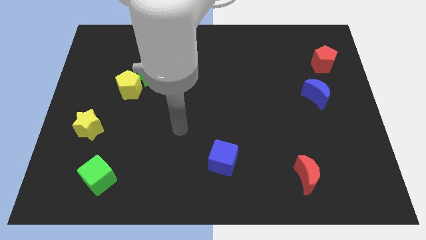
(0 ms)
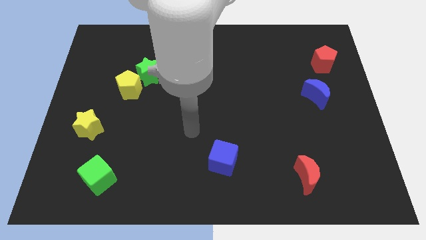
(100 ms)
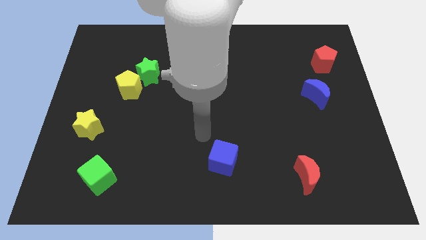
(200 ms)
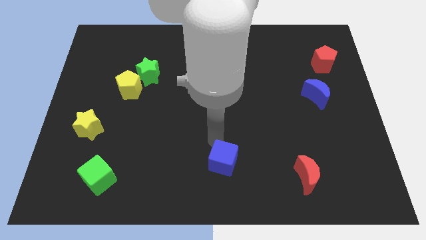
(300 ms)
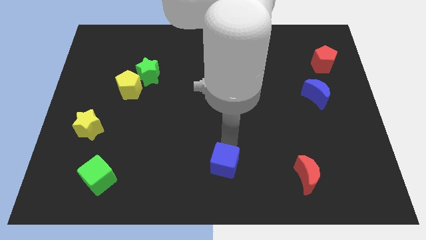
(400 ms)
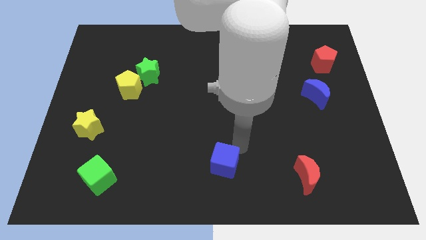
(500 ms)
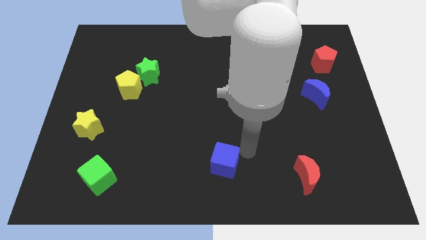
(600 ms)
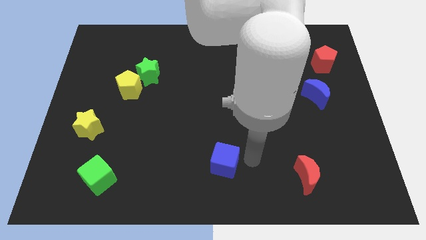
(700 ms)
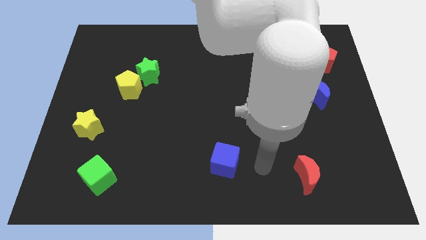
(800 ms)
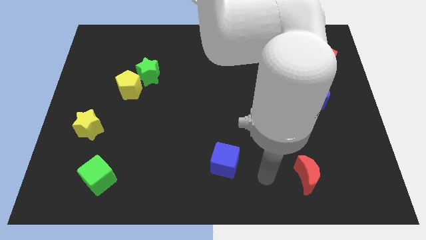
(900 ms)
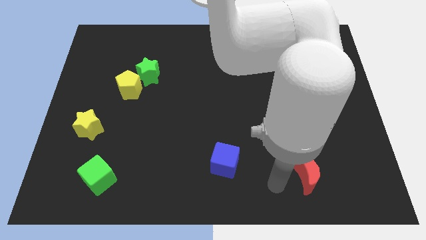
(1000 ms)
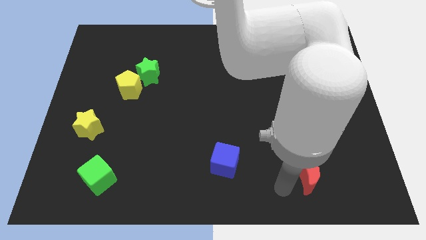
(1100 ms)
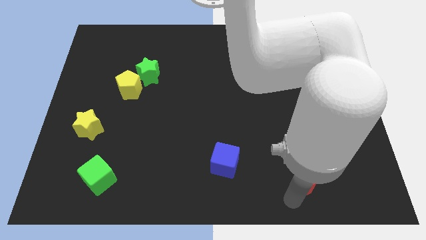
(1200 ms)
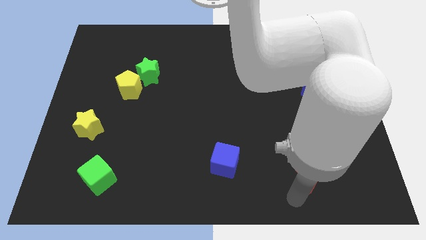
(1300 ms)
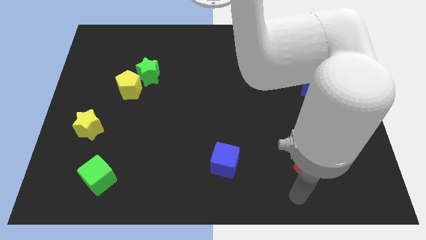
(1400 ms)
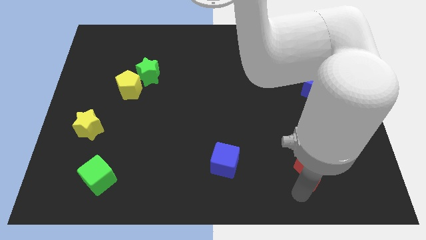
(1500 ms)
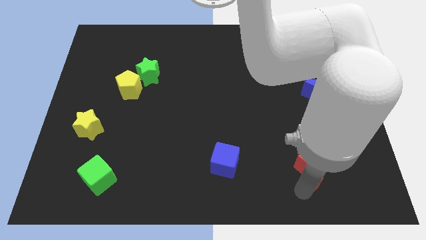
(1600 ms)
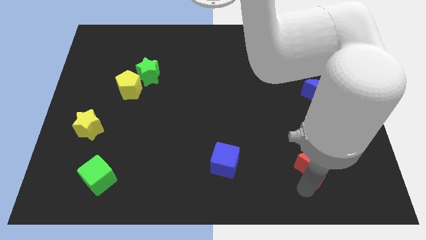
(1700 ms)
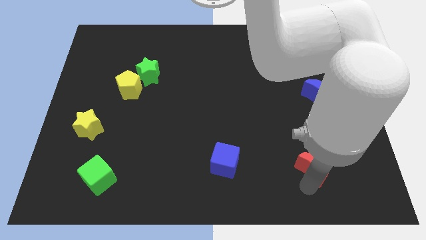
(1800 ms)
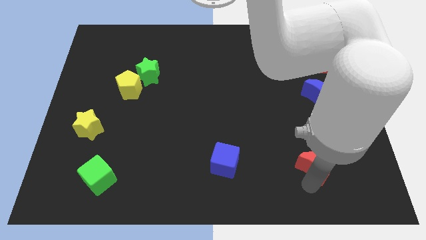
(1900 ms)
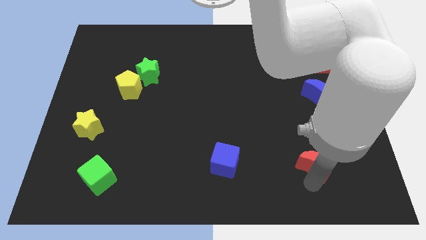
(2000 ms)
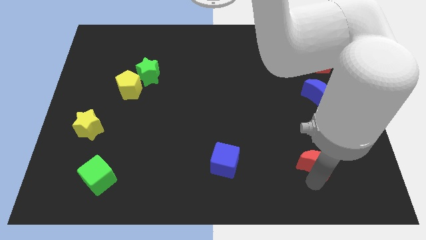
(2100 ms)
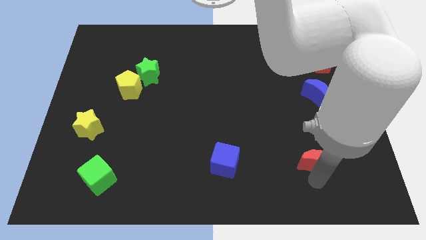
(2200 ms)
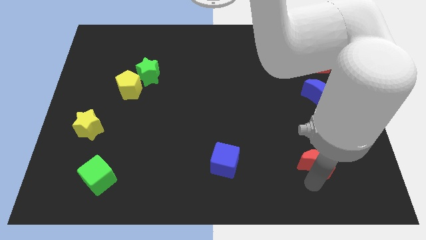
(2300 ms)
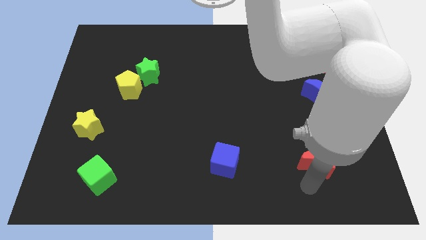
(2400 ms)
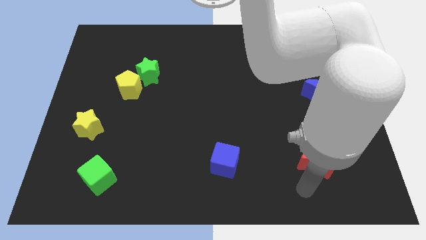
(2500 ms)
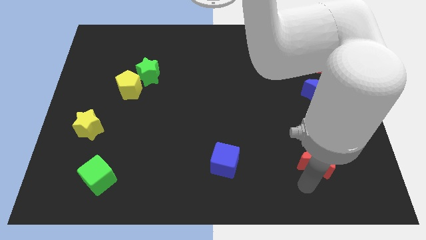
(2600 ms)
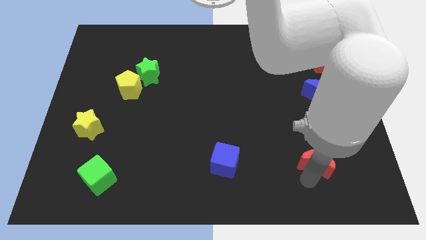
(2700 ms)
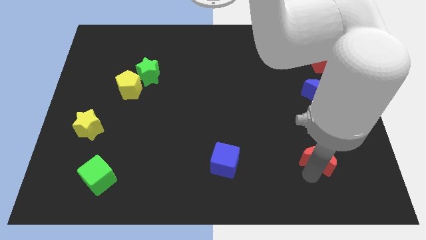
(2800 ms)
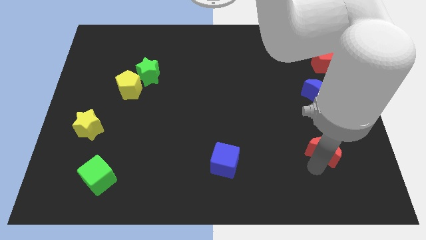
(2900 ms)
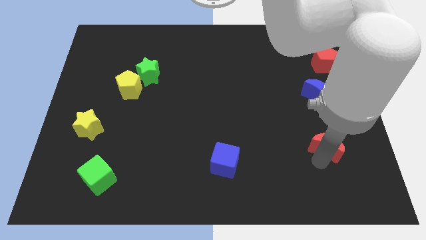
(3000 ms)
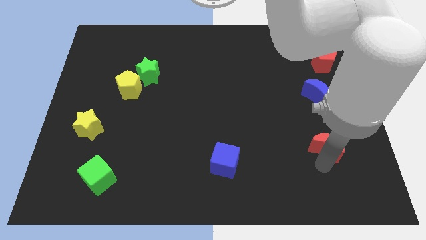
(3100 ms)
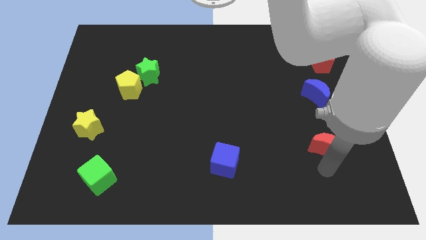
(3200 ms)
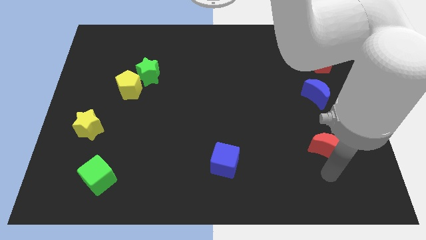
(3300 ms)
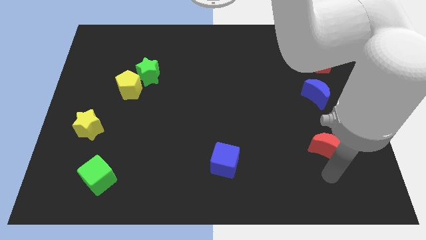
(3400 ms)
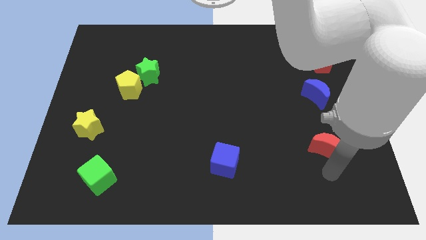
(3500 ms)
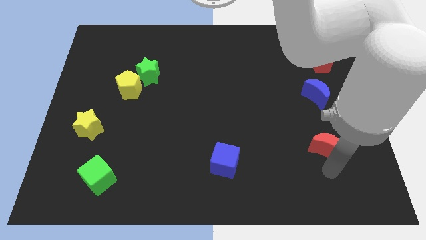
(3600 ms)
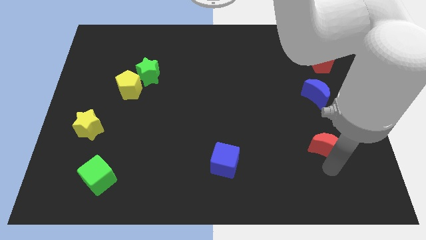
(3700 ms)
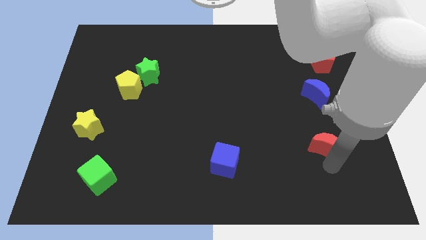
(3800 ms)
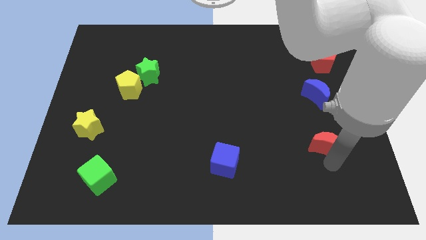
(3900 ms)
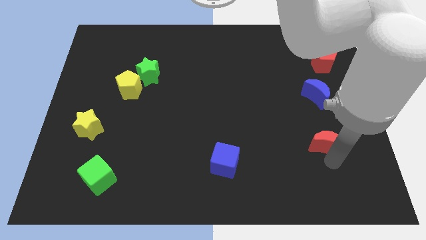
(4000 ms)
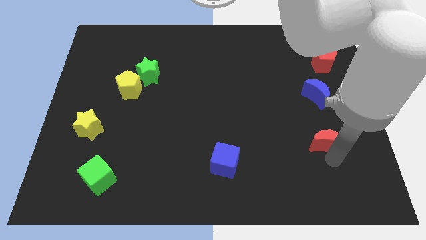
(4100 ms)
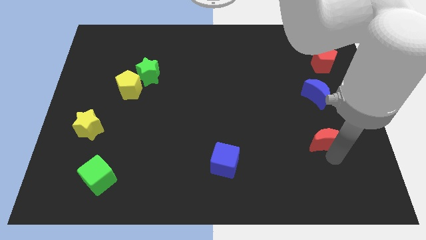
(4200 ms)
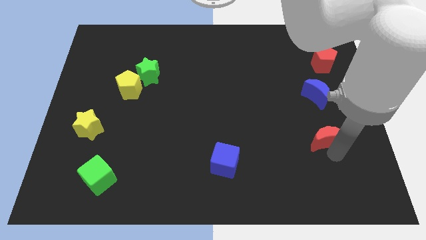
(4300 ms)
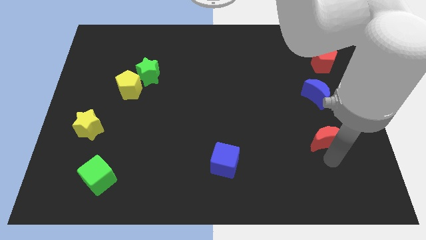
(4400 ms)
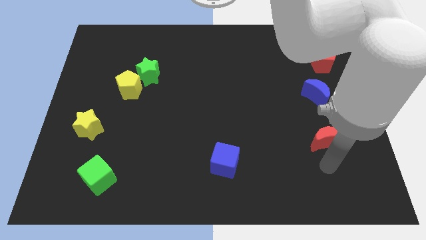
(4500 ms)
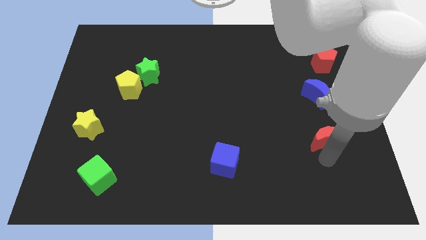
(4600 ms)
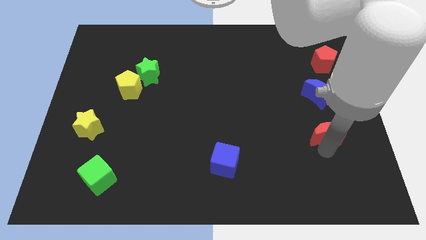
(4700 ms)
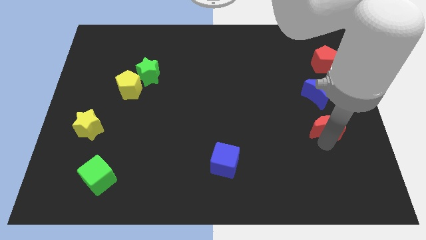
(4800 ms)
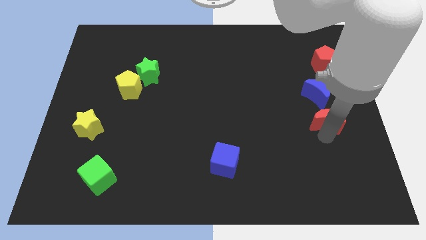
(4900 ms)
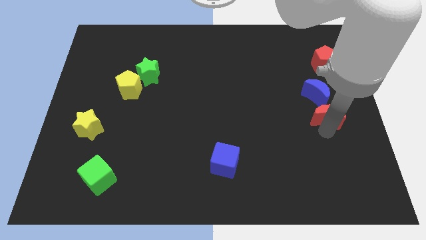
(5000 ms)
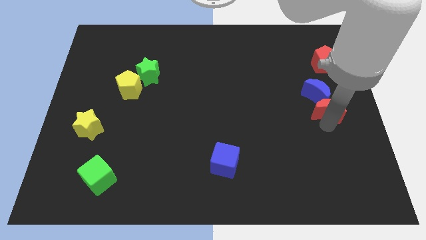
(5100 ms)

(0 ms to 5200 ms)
slide the red moon close to the blue moon

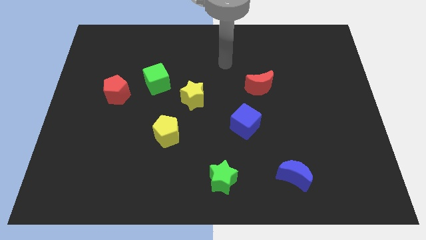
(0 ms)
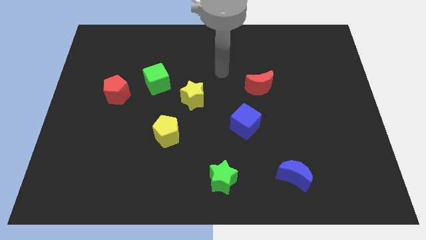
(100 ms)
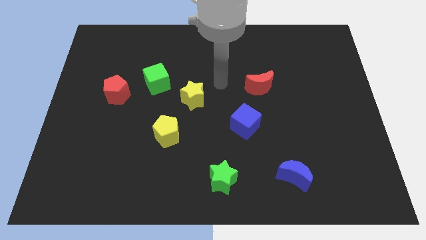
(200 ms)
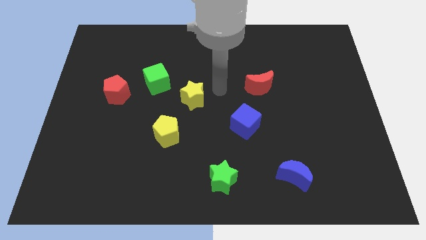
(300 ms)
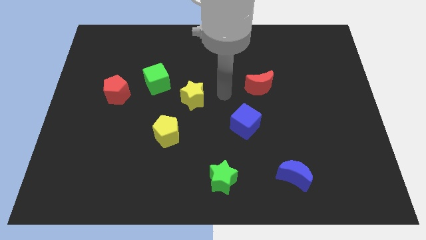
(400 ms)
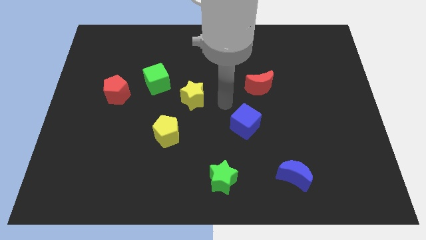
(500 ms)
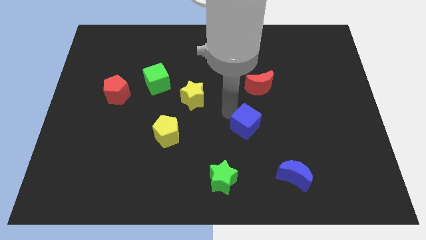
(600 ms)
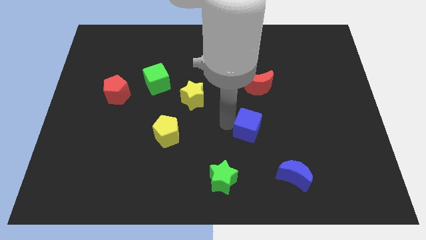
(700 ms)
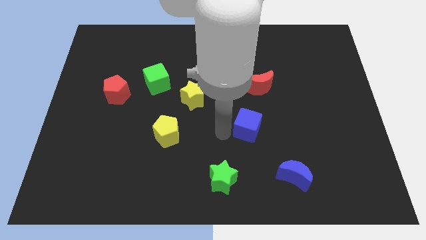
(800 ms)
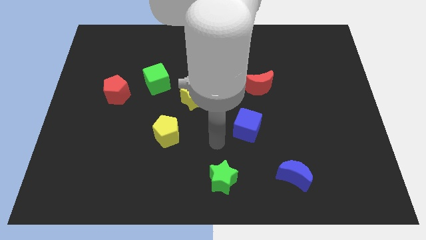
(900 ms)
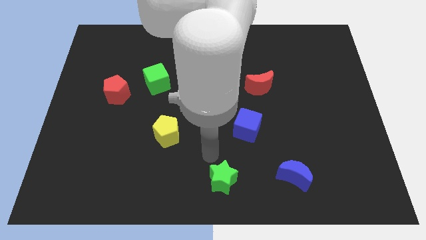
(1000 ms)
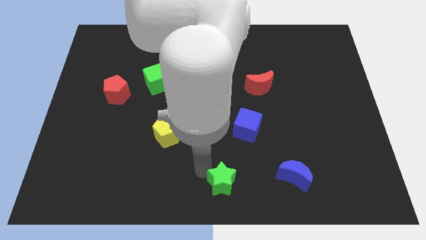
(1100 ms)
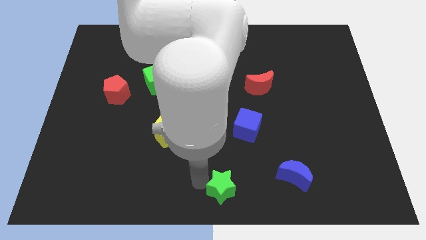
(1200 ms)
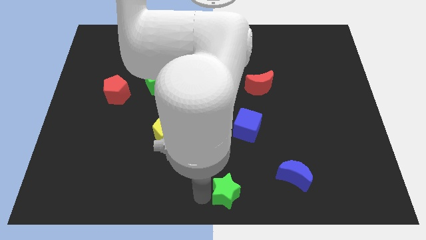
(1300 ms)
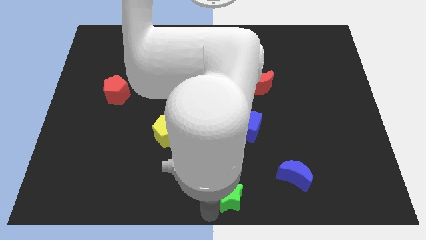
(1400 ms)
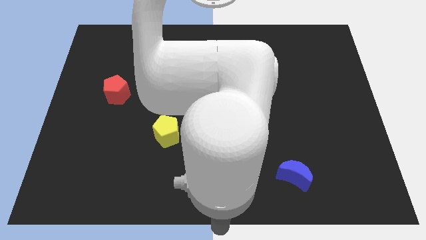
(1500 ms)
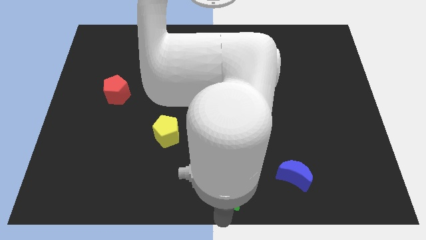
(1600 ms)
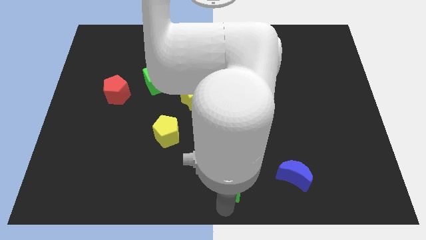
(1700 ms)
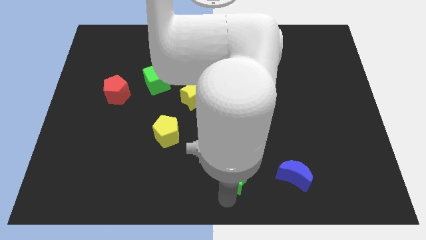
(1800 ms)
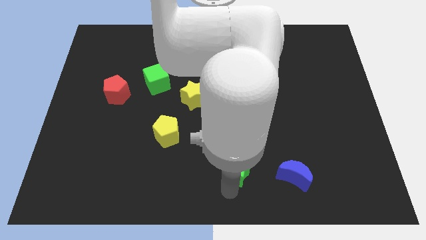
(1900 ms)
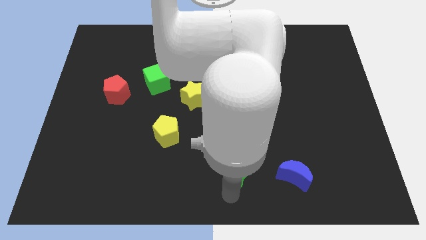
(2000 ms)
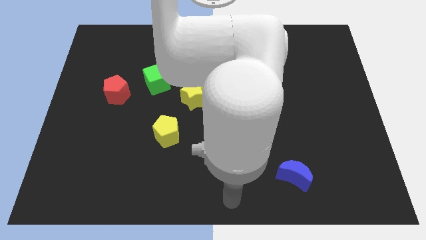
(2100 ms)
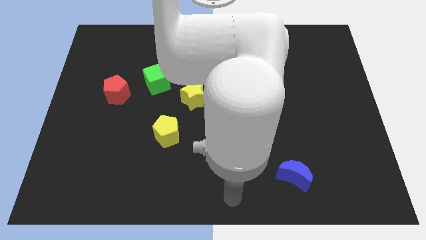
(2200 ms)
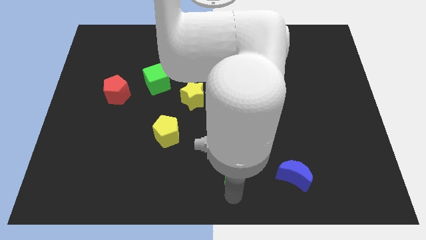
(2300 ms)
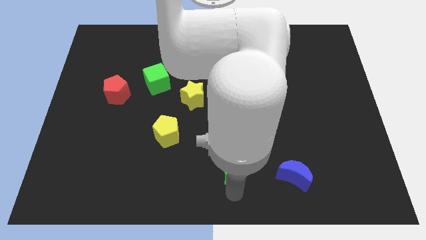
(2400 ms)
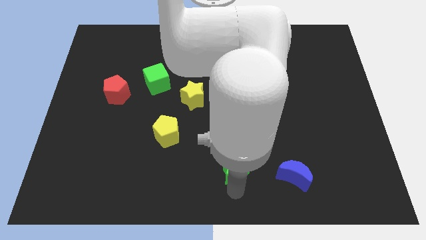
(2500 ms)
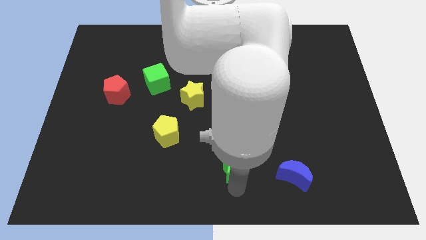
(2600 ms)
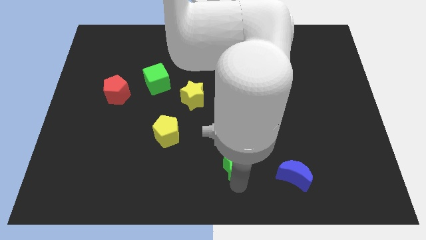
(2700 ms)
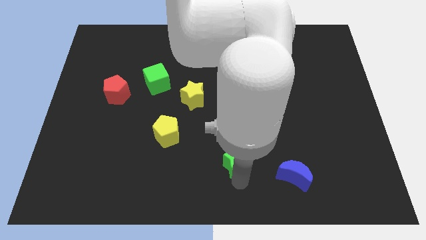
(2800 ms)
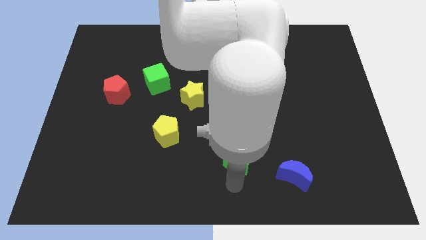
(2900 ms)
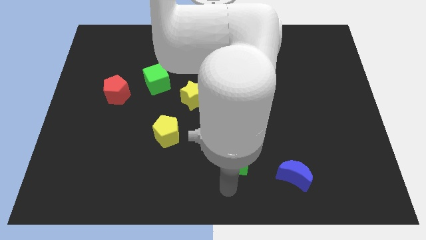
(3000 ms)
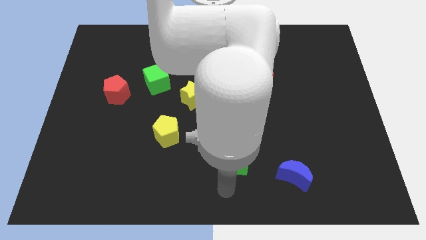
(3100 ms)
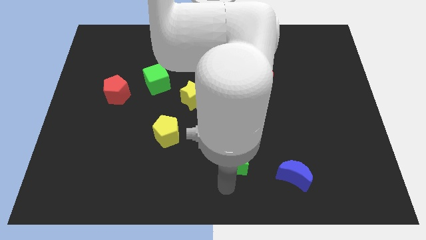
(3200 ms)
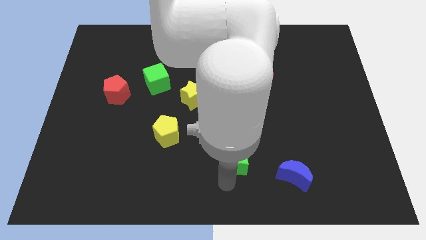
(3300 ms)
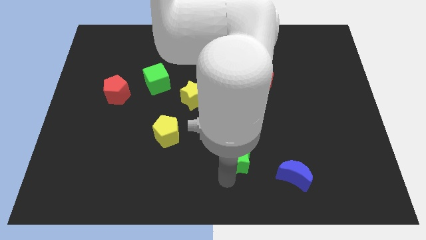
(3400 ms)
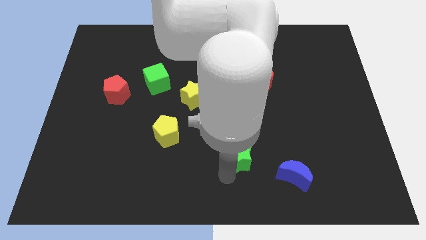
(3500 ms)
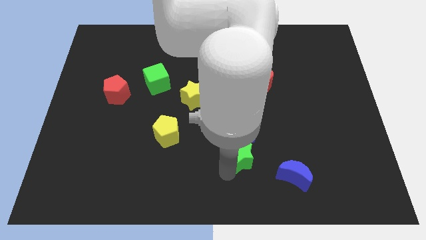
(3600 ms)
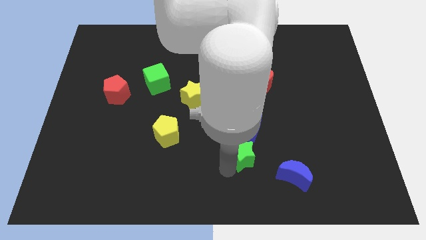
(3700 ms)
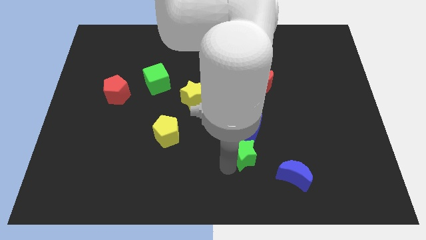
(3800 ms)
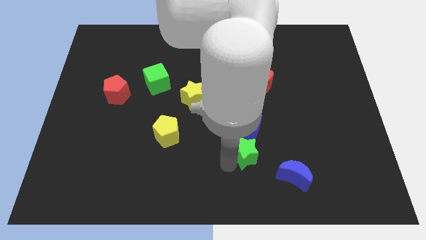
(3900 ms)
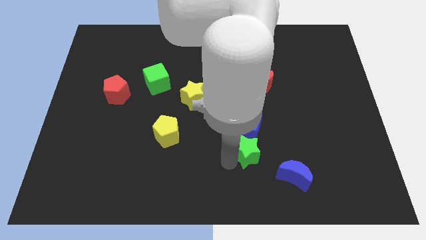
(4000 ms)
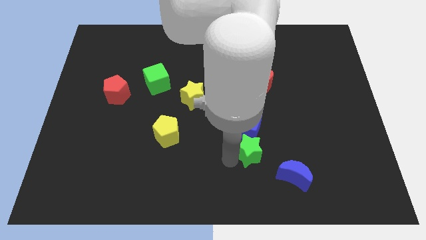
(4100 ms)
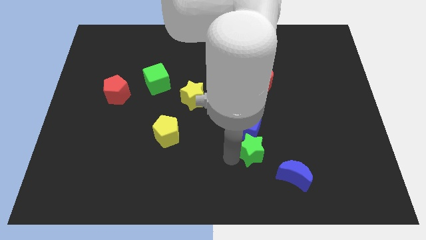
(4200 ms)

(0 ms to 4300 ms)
put the green star next to the blue cube
